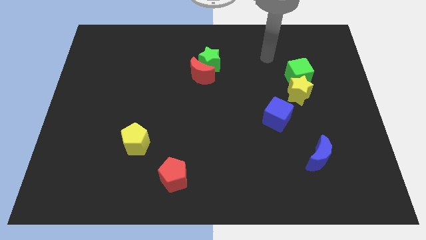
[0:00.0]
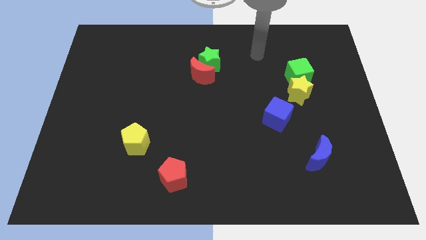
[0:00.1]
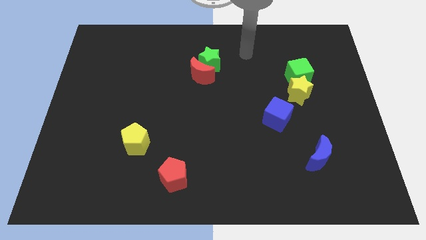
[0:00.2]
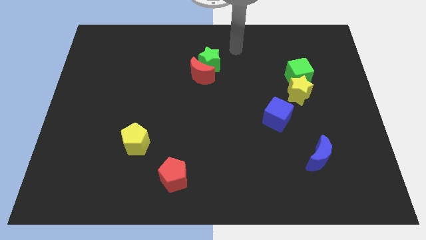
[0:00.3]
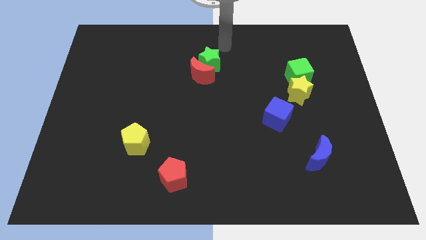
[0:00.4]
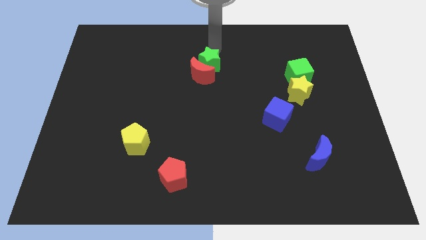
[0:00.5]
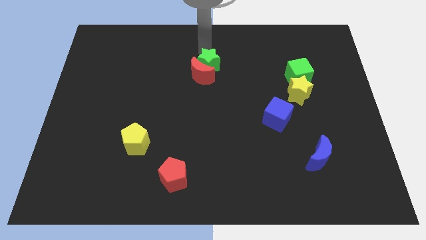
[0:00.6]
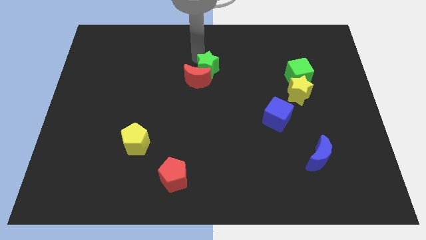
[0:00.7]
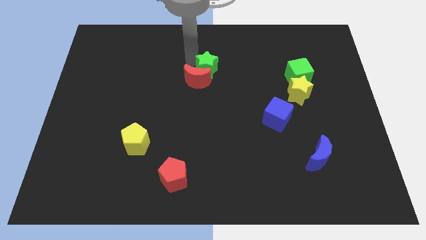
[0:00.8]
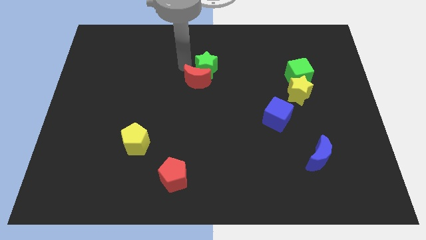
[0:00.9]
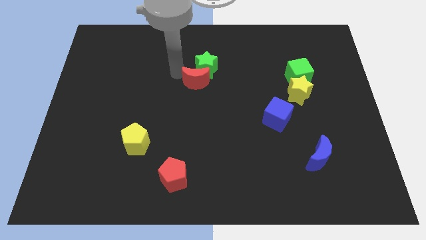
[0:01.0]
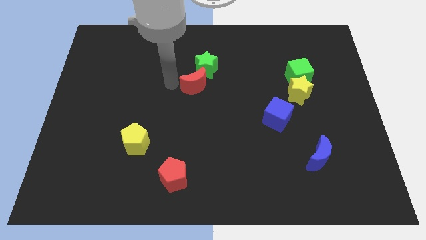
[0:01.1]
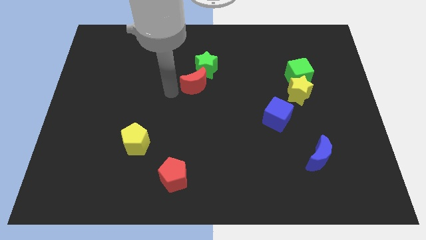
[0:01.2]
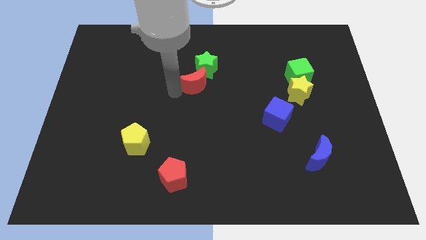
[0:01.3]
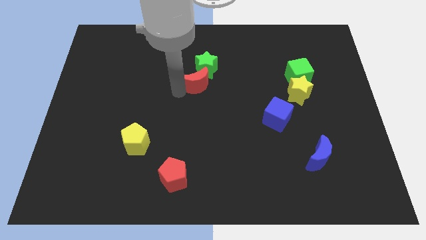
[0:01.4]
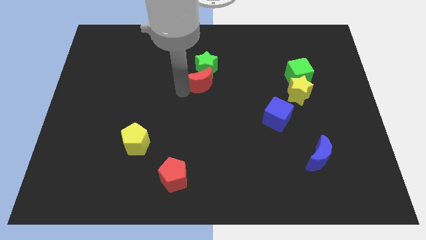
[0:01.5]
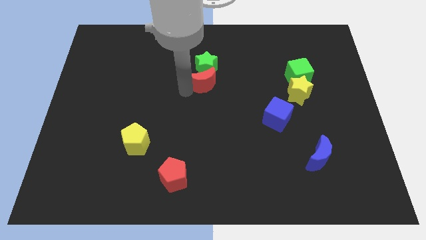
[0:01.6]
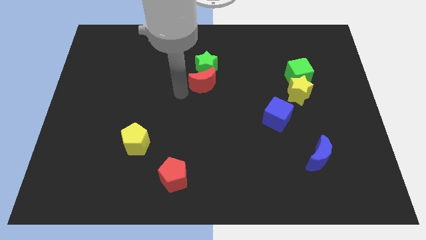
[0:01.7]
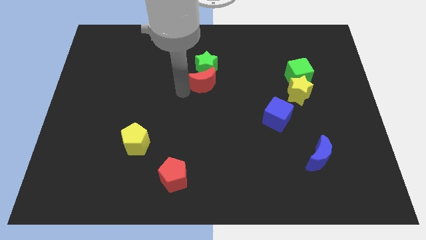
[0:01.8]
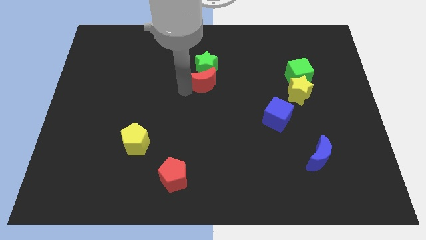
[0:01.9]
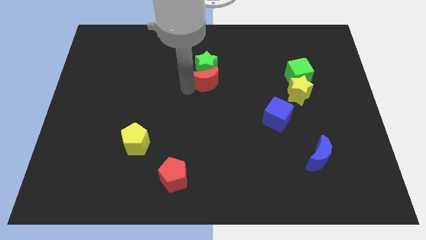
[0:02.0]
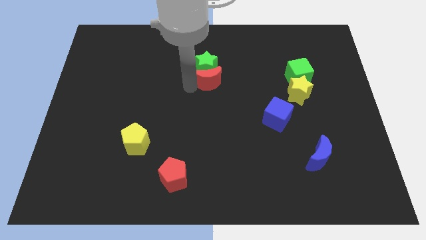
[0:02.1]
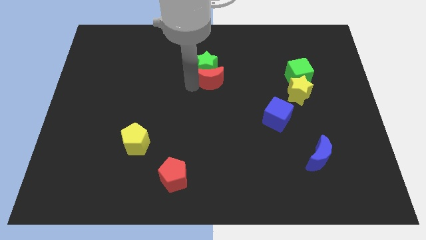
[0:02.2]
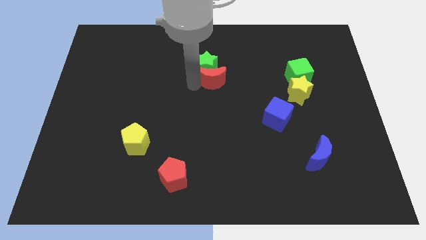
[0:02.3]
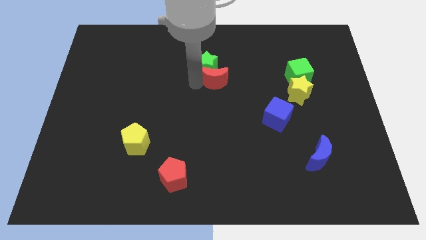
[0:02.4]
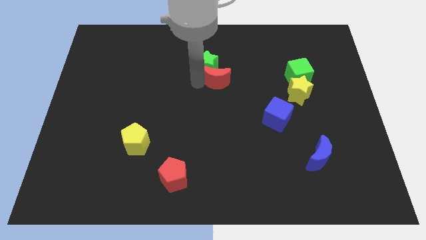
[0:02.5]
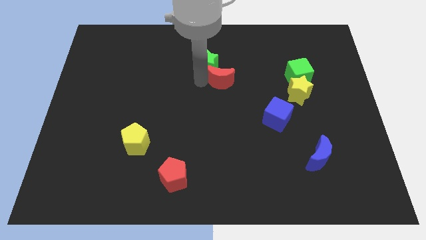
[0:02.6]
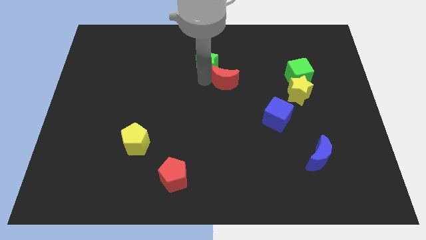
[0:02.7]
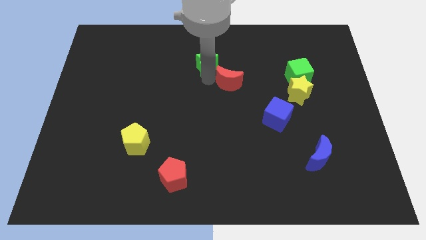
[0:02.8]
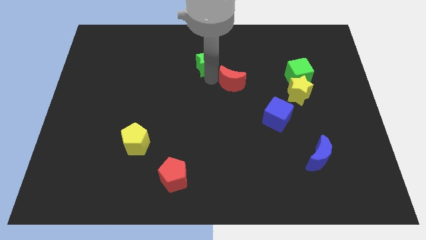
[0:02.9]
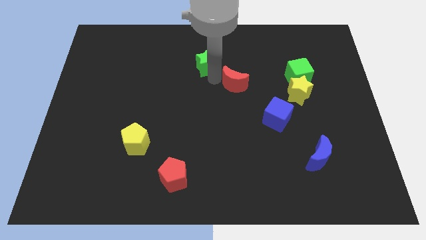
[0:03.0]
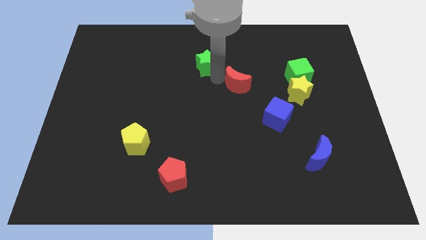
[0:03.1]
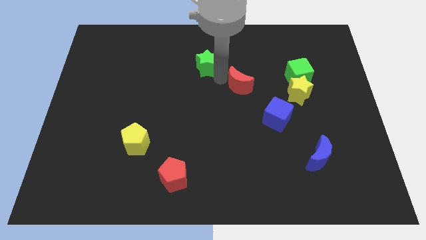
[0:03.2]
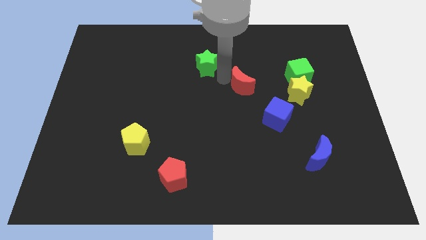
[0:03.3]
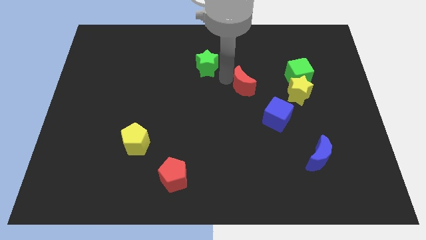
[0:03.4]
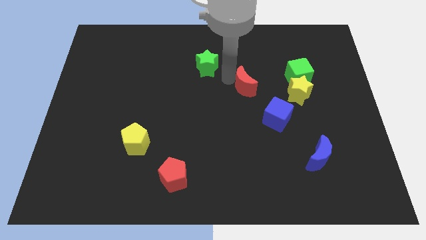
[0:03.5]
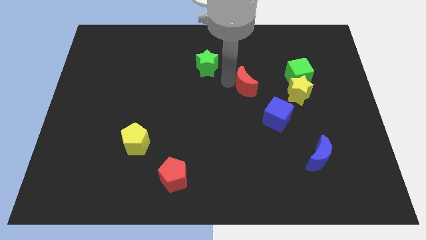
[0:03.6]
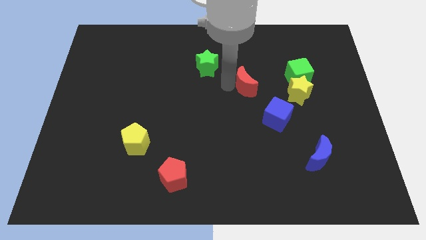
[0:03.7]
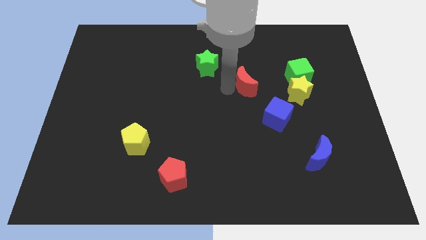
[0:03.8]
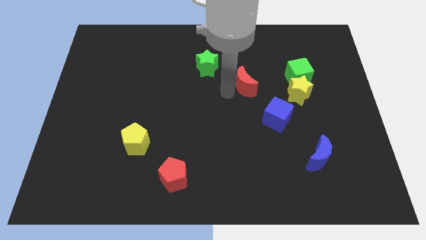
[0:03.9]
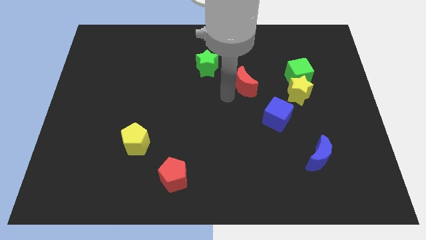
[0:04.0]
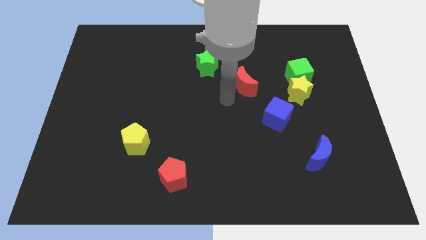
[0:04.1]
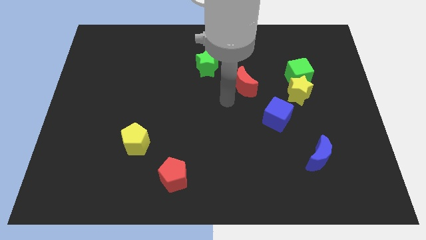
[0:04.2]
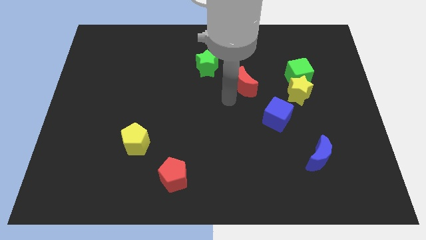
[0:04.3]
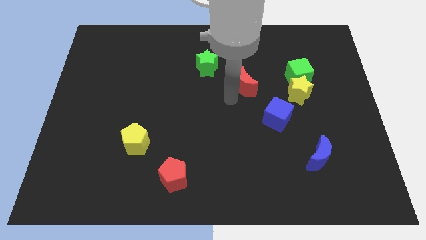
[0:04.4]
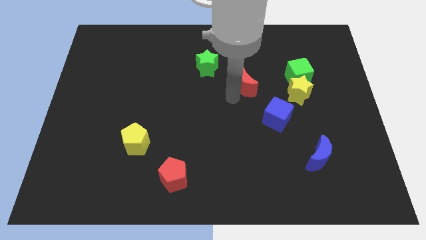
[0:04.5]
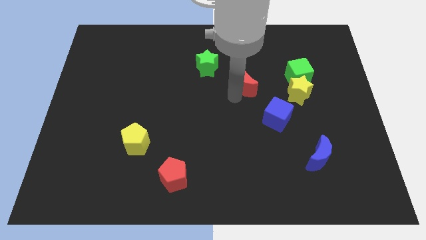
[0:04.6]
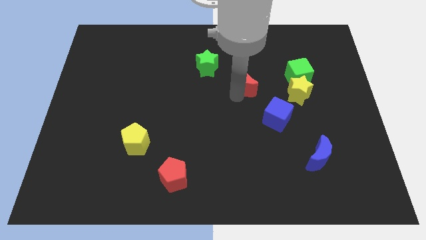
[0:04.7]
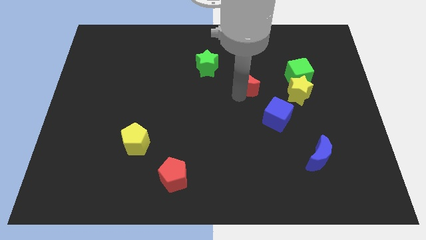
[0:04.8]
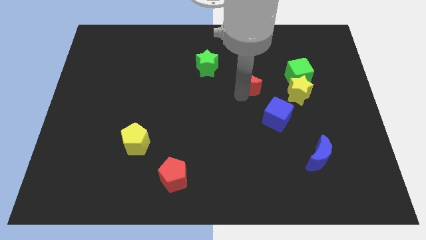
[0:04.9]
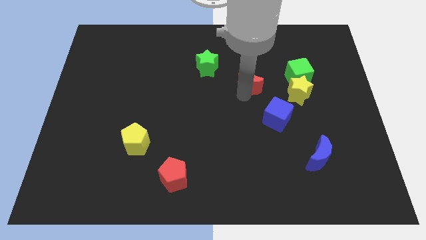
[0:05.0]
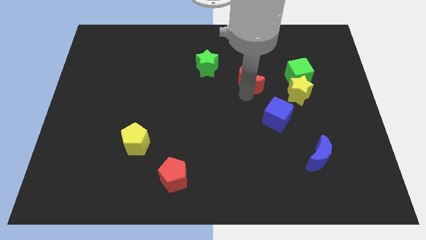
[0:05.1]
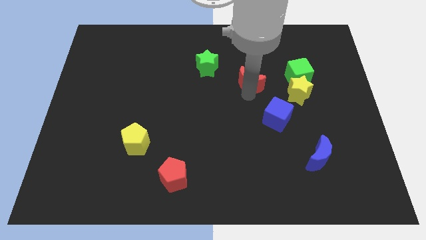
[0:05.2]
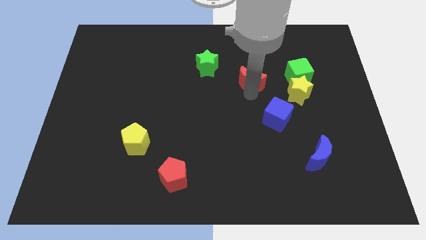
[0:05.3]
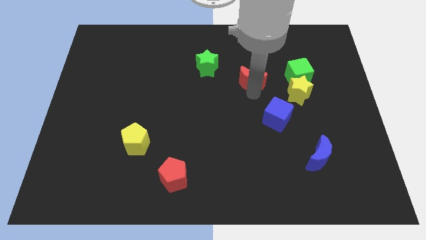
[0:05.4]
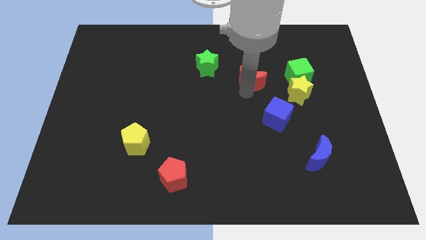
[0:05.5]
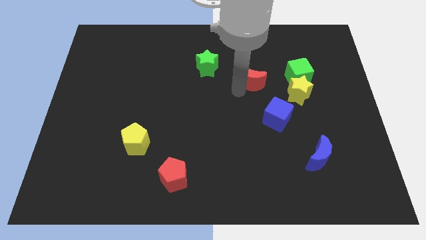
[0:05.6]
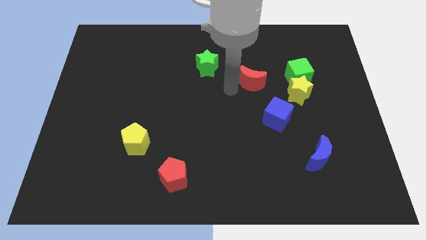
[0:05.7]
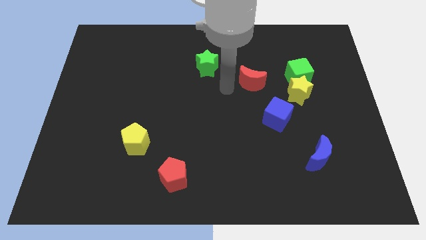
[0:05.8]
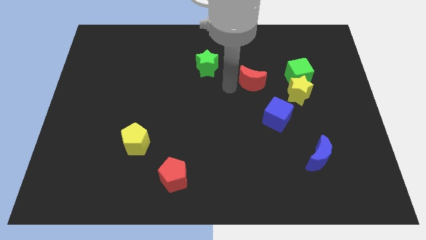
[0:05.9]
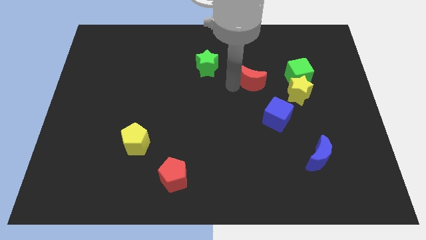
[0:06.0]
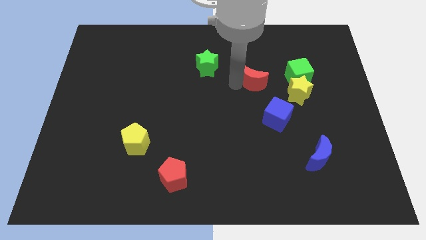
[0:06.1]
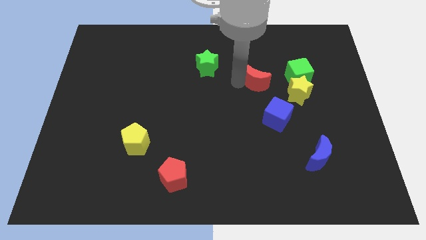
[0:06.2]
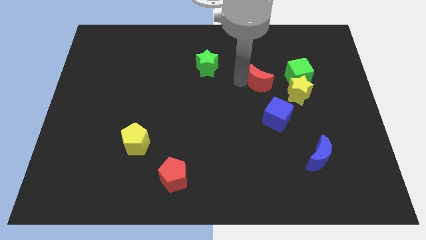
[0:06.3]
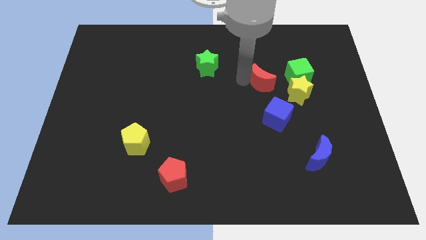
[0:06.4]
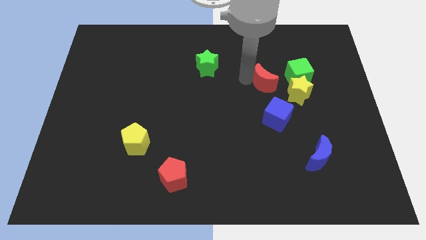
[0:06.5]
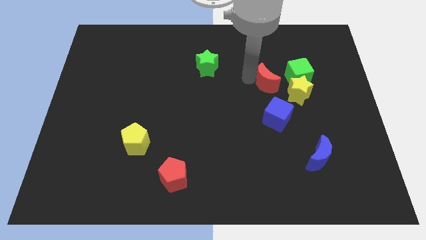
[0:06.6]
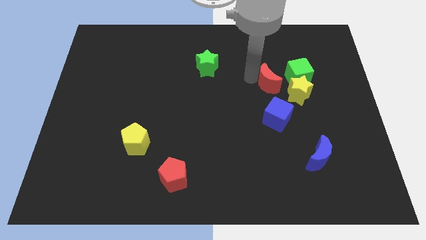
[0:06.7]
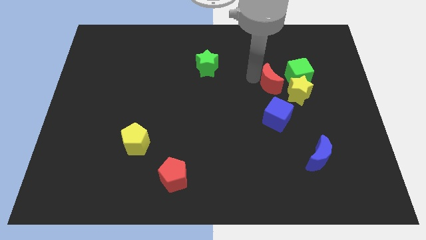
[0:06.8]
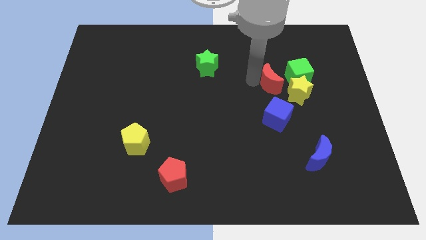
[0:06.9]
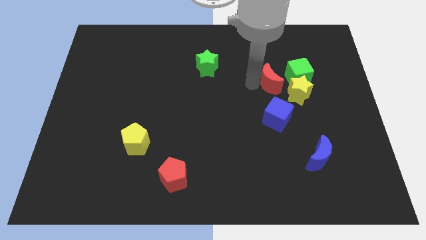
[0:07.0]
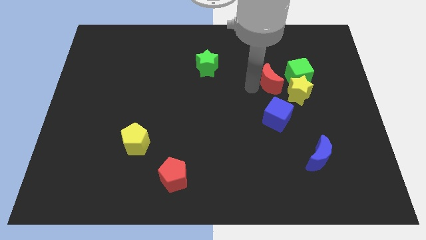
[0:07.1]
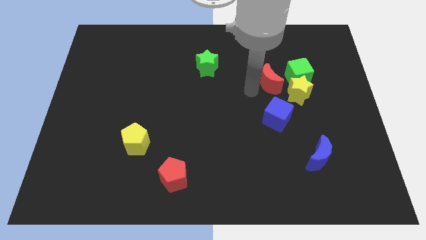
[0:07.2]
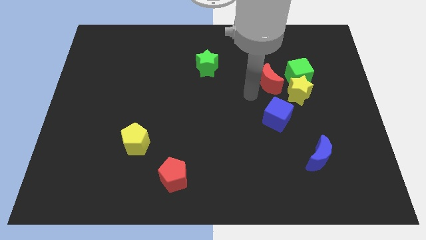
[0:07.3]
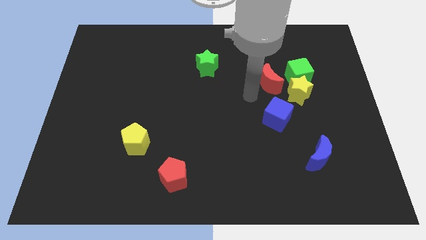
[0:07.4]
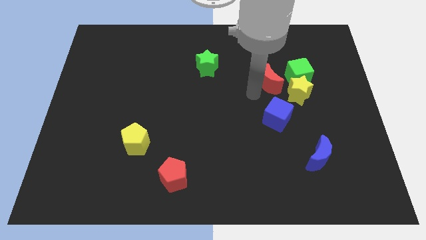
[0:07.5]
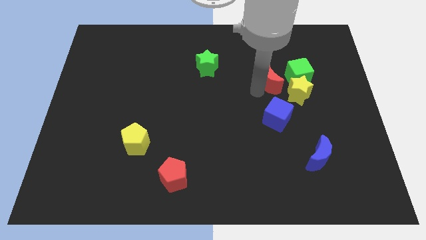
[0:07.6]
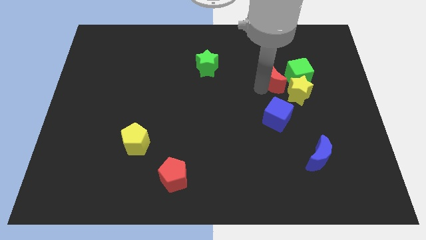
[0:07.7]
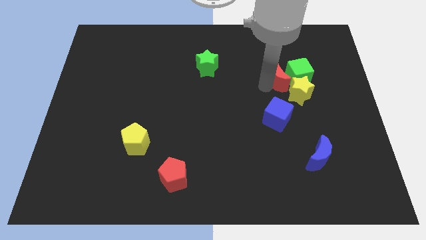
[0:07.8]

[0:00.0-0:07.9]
slide the red moon close to the green cube
